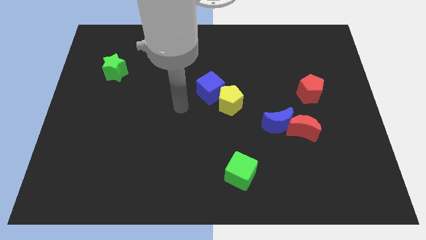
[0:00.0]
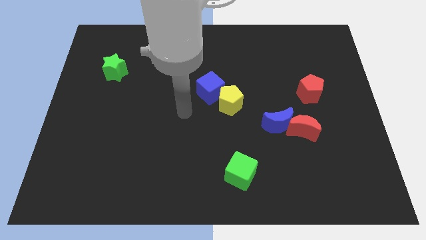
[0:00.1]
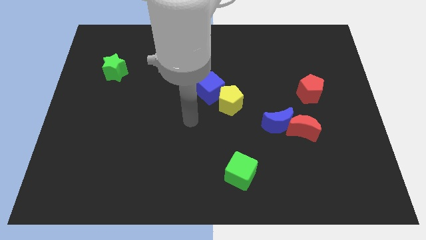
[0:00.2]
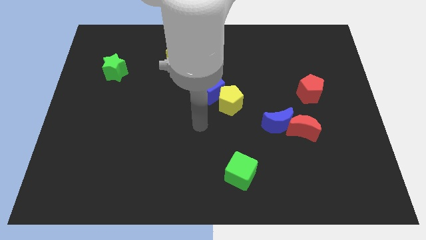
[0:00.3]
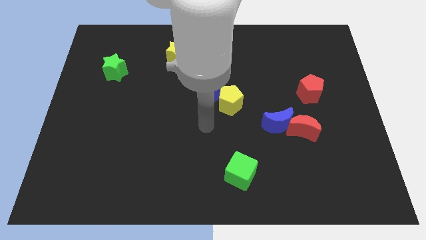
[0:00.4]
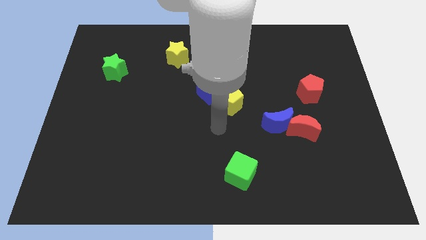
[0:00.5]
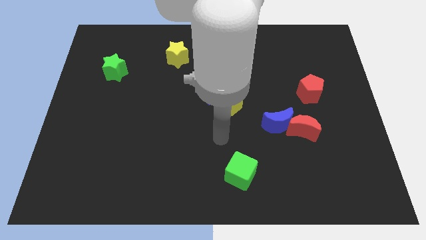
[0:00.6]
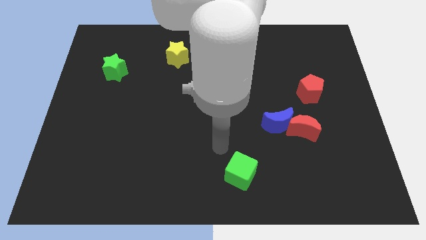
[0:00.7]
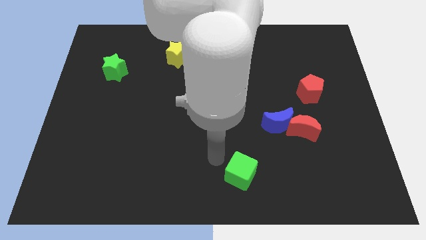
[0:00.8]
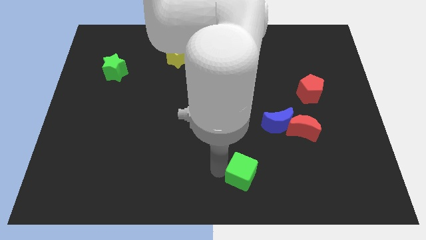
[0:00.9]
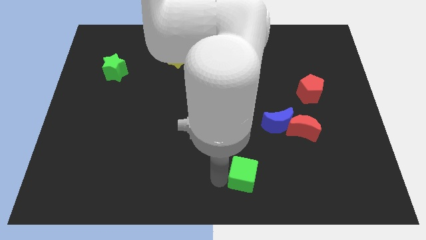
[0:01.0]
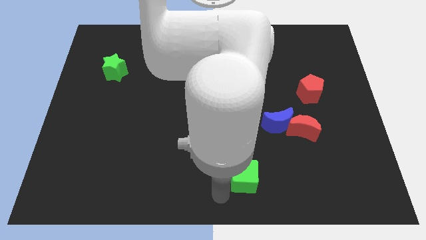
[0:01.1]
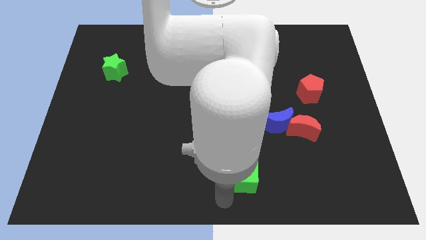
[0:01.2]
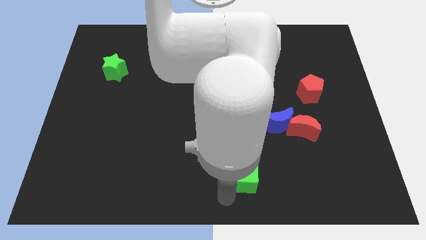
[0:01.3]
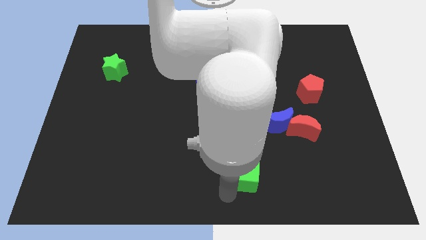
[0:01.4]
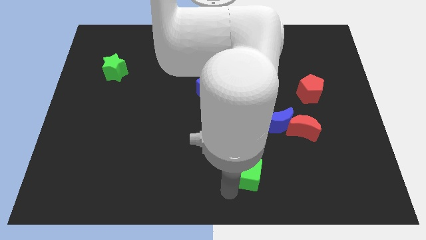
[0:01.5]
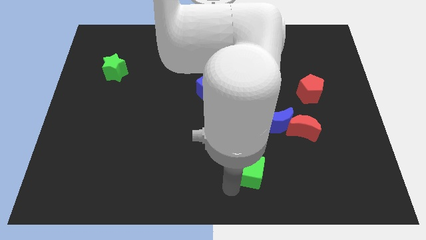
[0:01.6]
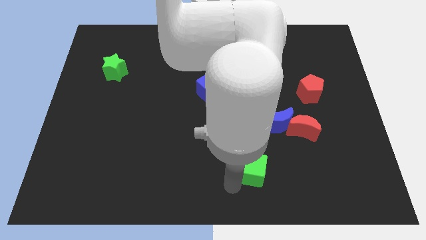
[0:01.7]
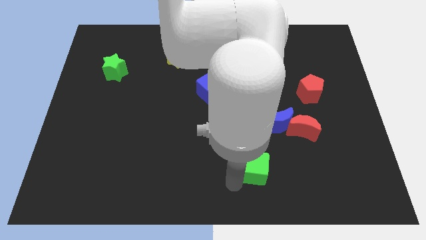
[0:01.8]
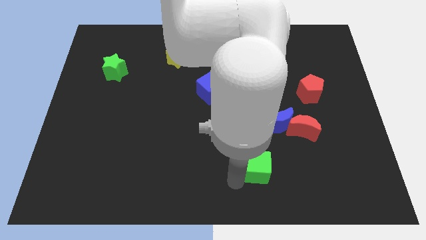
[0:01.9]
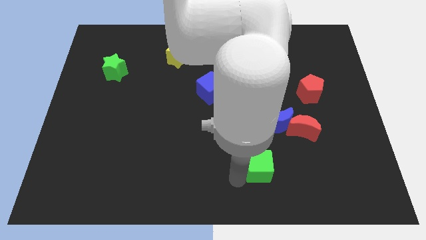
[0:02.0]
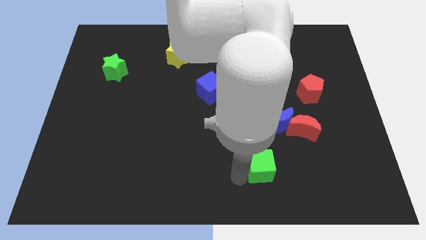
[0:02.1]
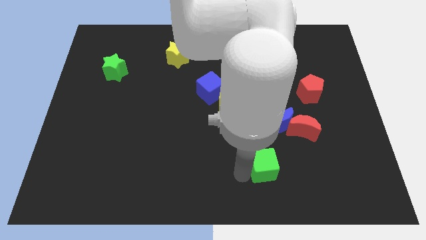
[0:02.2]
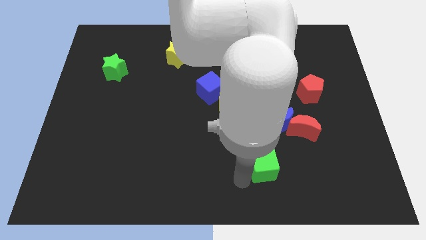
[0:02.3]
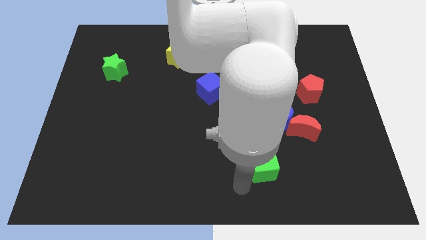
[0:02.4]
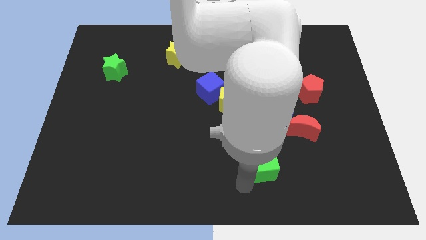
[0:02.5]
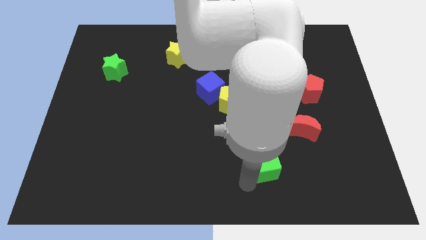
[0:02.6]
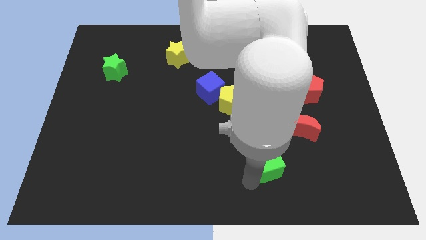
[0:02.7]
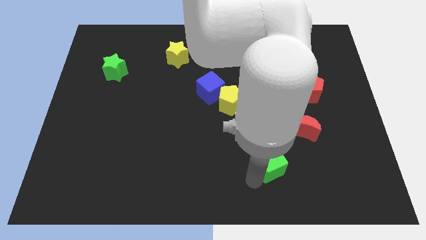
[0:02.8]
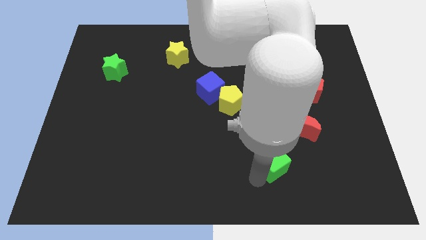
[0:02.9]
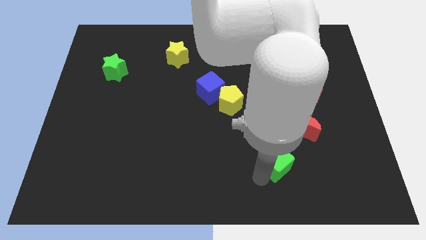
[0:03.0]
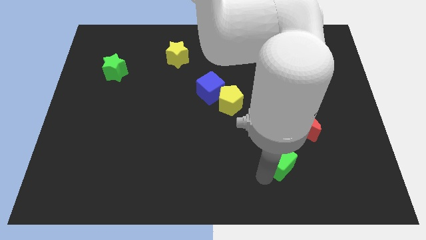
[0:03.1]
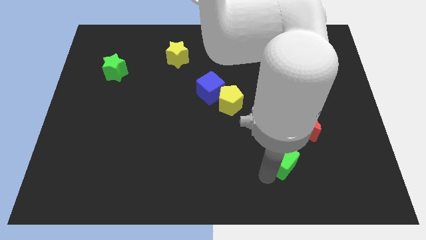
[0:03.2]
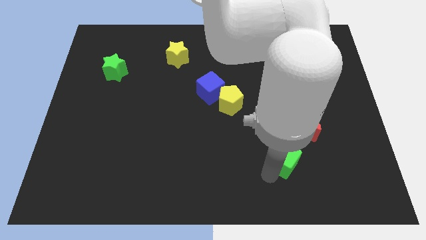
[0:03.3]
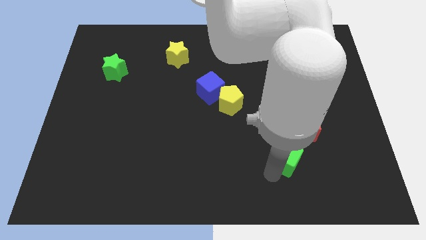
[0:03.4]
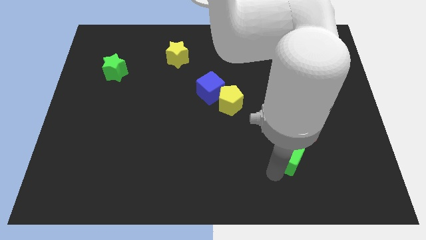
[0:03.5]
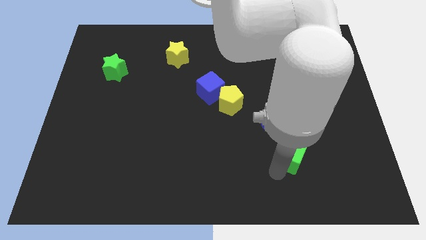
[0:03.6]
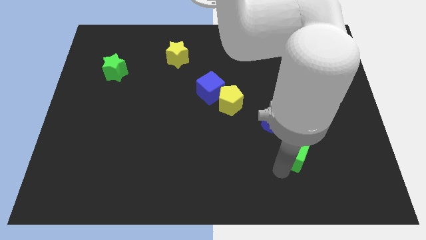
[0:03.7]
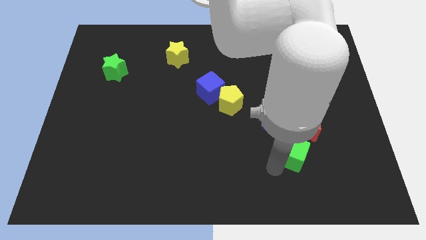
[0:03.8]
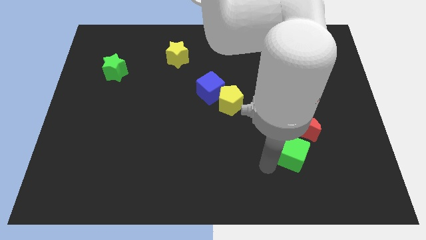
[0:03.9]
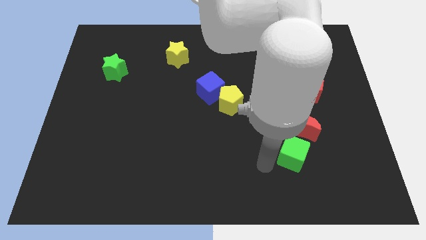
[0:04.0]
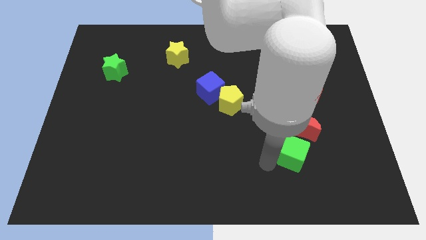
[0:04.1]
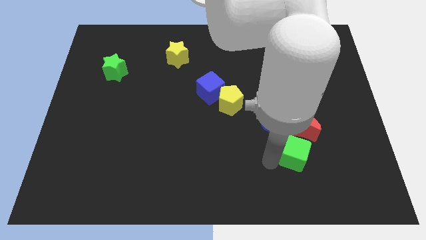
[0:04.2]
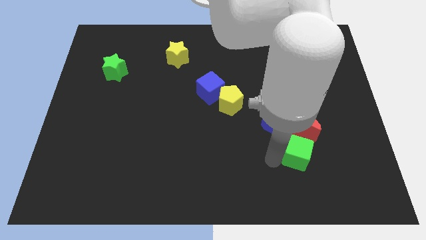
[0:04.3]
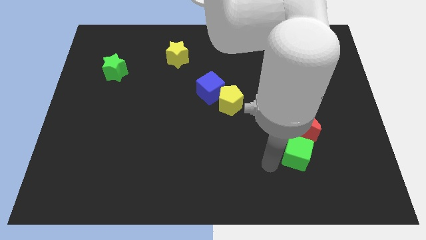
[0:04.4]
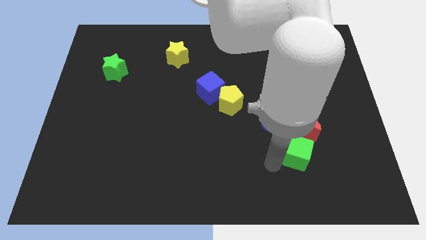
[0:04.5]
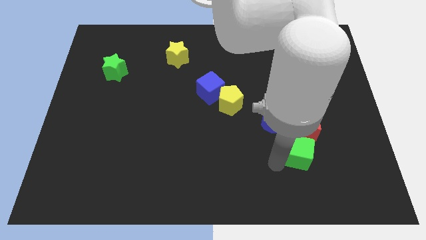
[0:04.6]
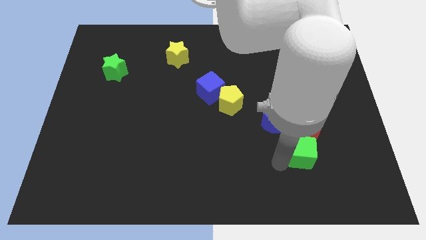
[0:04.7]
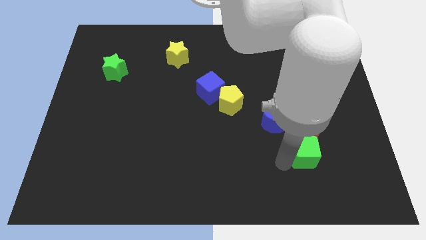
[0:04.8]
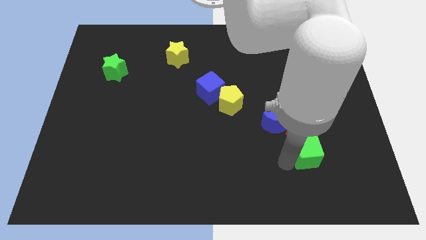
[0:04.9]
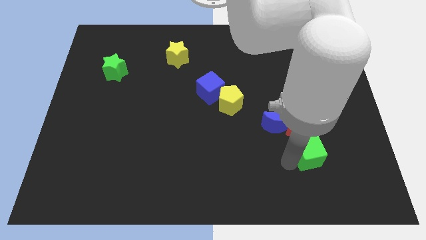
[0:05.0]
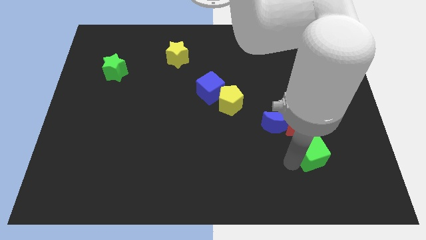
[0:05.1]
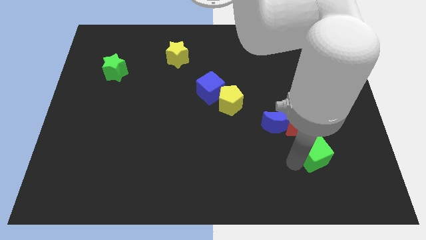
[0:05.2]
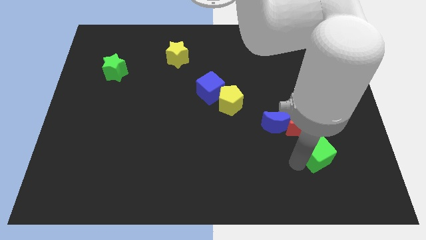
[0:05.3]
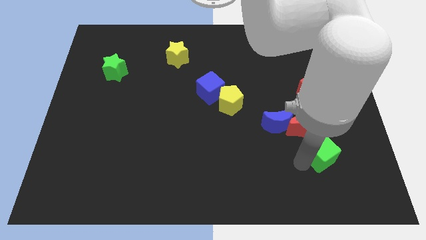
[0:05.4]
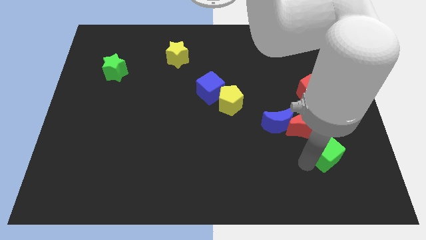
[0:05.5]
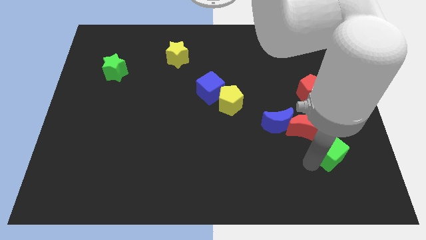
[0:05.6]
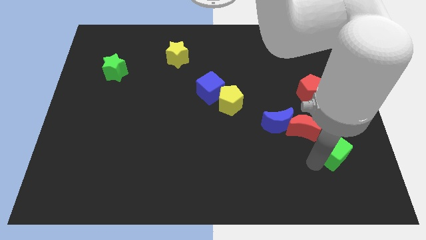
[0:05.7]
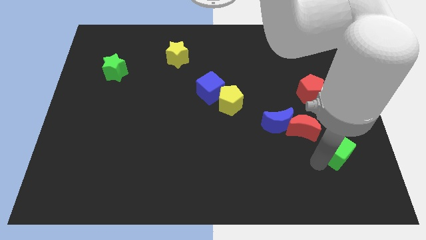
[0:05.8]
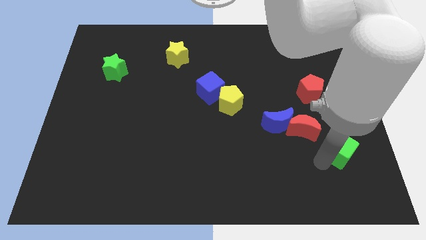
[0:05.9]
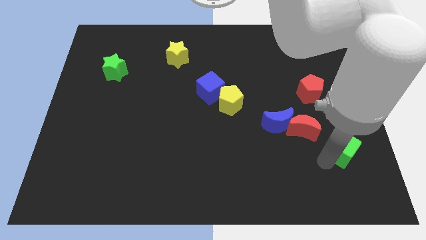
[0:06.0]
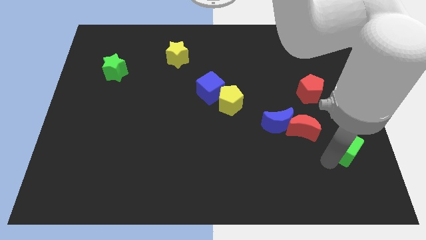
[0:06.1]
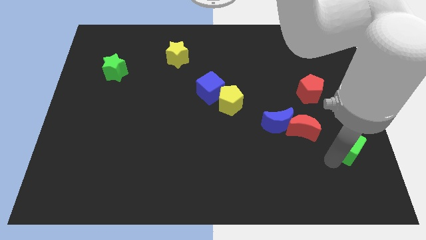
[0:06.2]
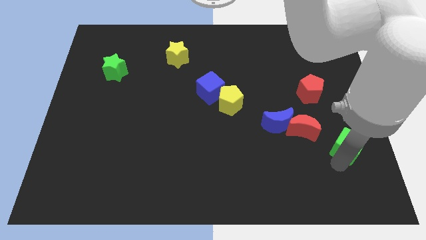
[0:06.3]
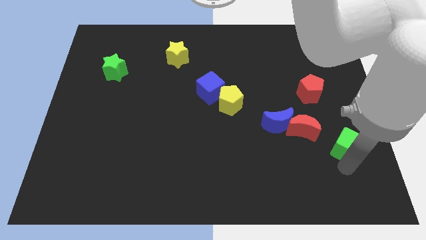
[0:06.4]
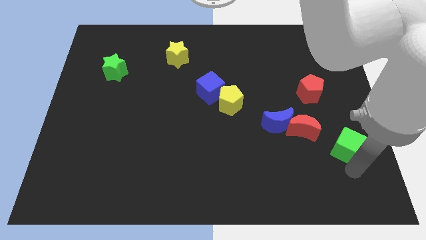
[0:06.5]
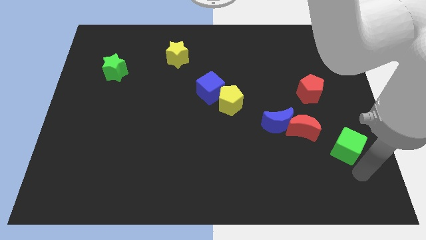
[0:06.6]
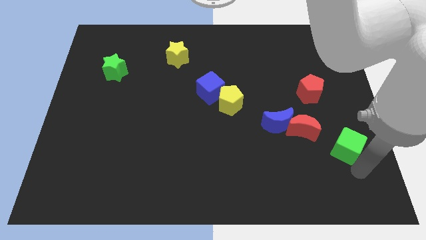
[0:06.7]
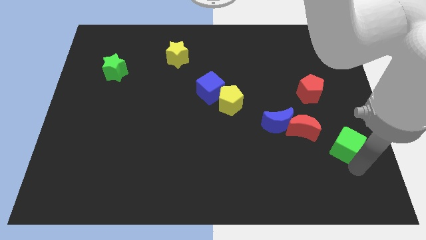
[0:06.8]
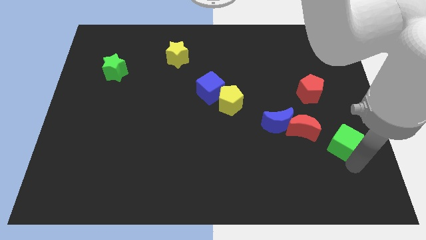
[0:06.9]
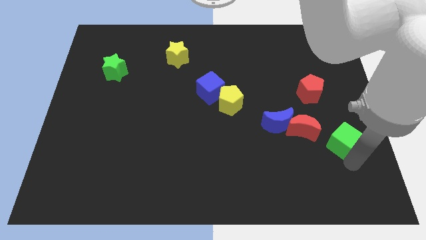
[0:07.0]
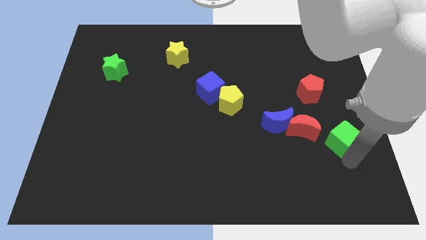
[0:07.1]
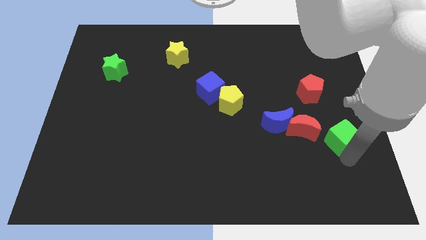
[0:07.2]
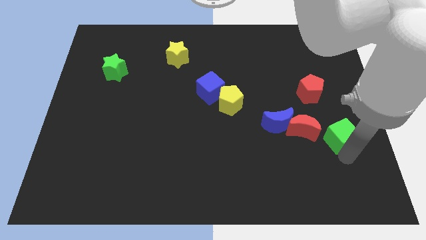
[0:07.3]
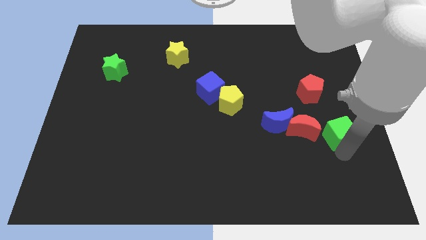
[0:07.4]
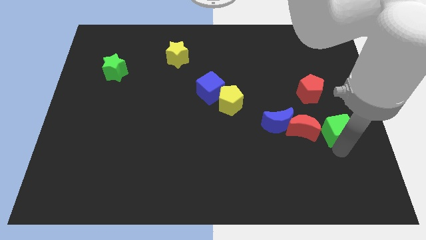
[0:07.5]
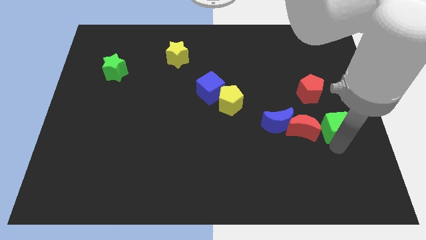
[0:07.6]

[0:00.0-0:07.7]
push the green cube diagonally up and to the right
